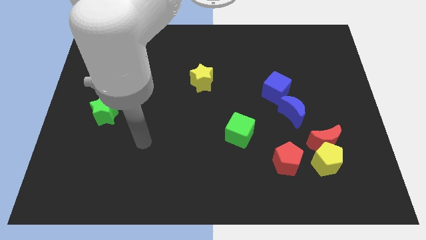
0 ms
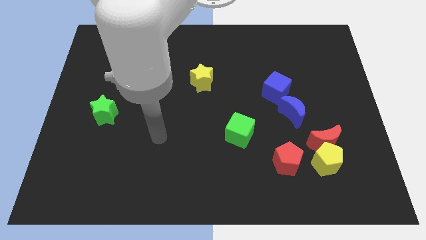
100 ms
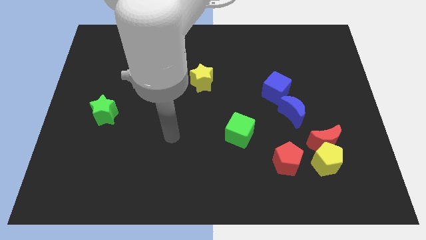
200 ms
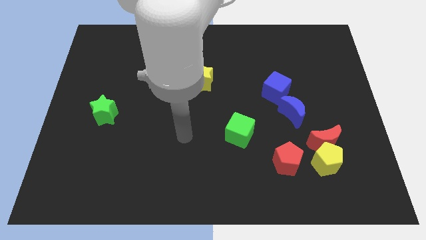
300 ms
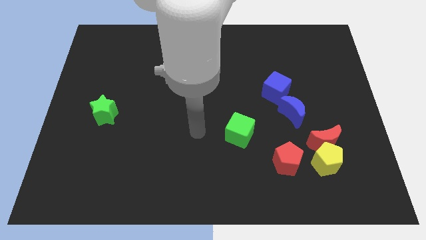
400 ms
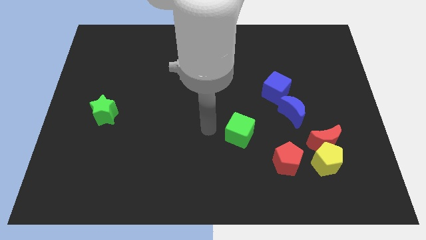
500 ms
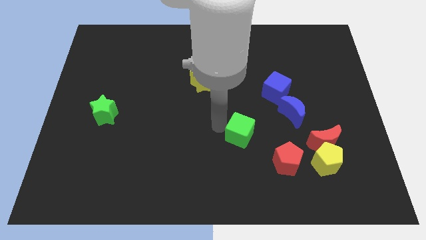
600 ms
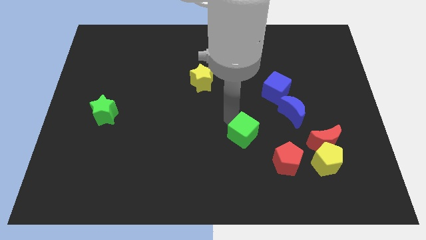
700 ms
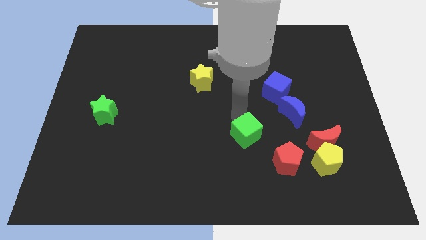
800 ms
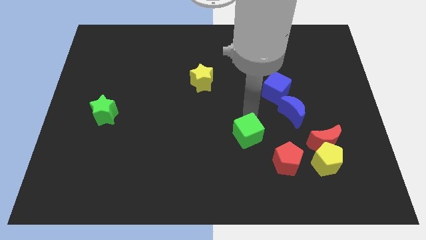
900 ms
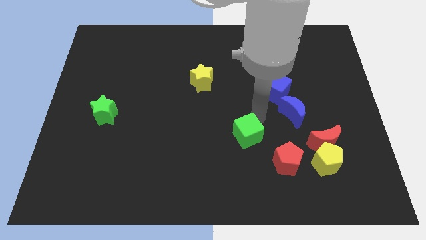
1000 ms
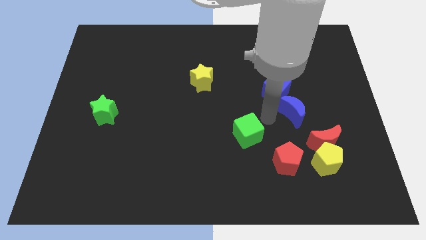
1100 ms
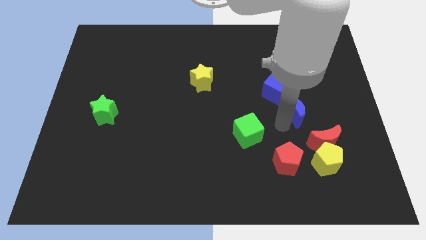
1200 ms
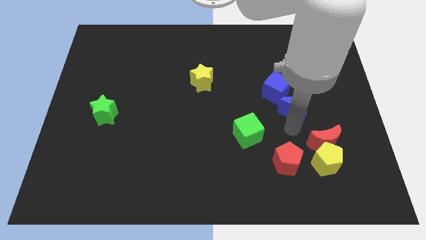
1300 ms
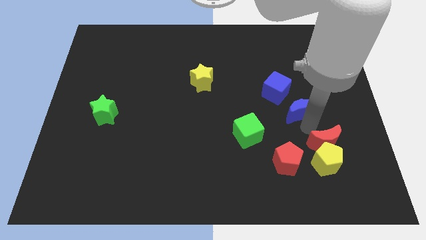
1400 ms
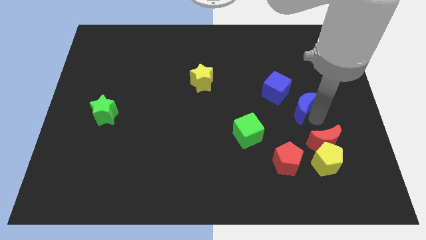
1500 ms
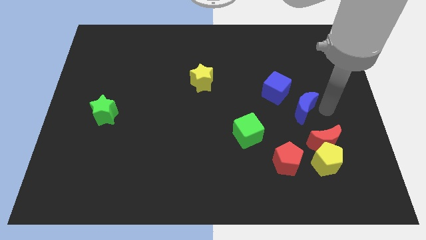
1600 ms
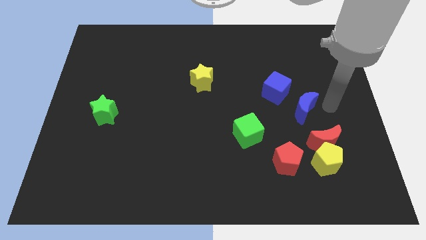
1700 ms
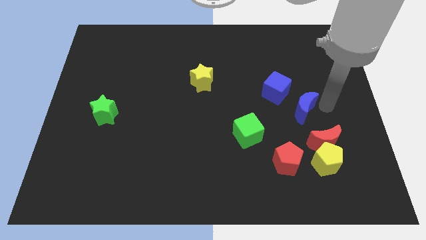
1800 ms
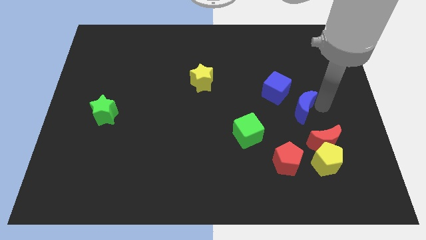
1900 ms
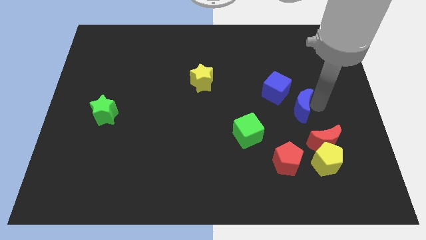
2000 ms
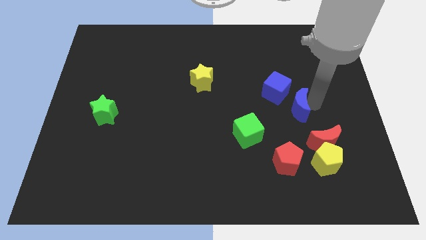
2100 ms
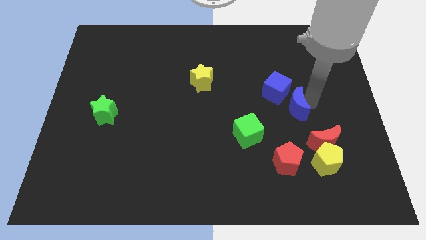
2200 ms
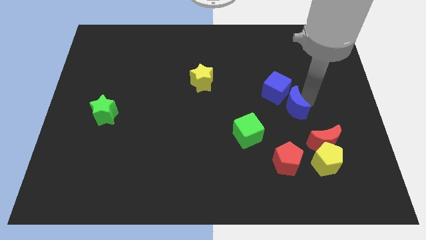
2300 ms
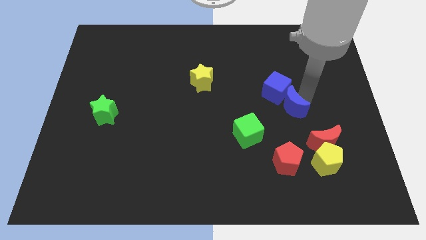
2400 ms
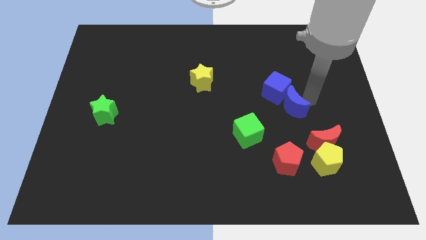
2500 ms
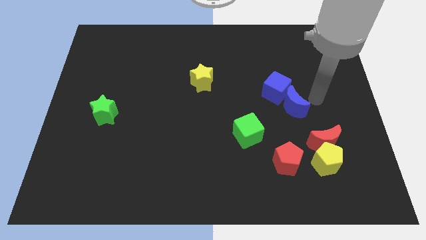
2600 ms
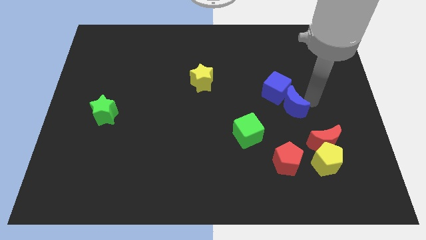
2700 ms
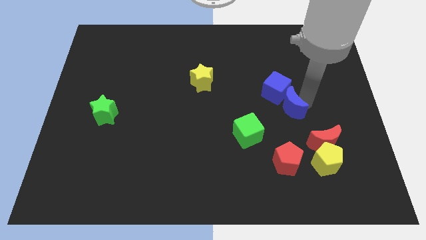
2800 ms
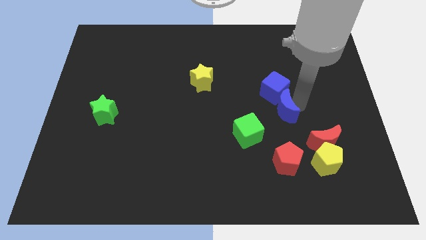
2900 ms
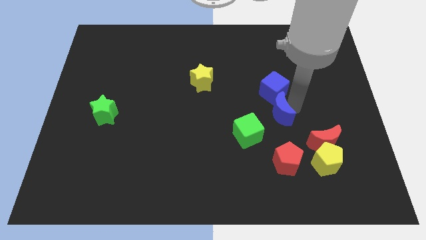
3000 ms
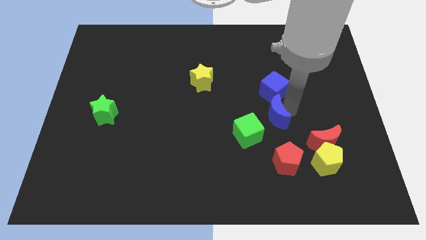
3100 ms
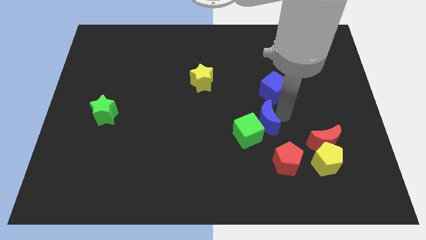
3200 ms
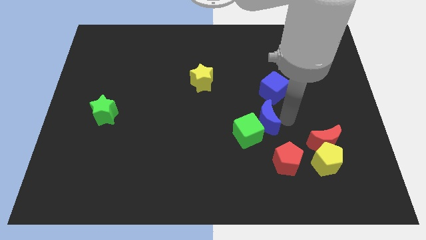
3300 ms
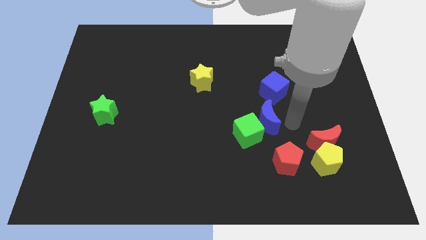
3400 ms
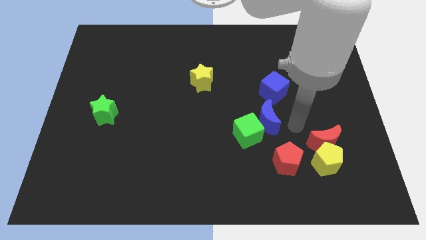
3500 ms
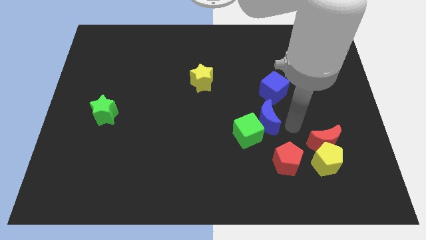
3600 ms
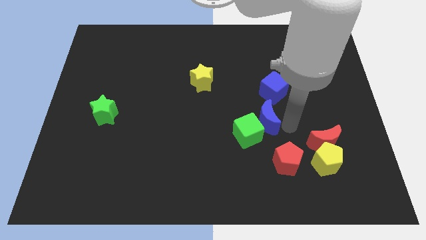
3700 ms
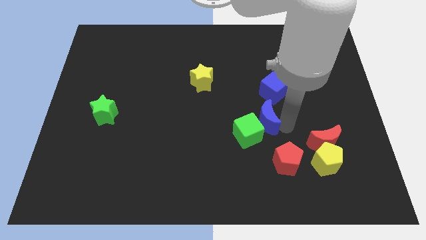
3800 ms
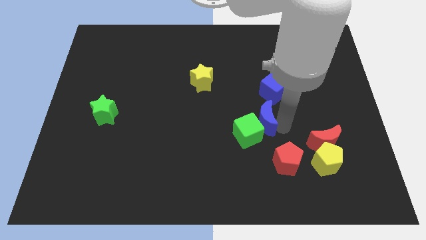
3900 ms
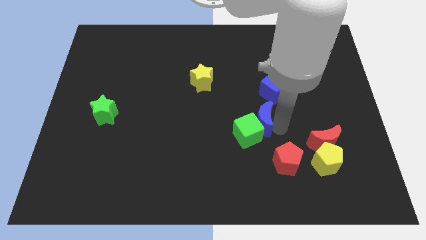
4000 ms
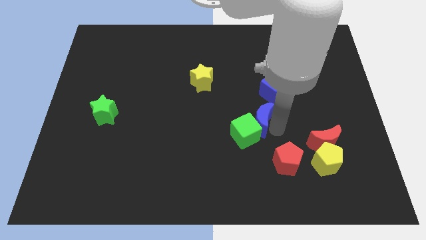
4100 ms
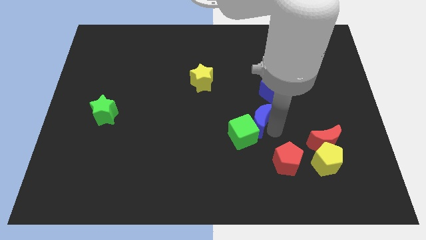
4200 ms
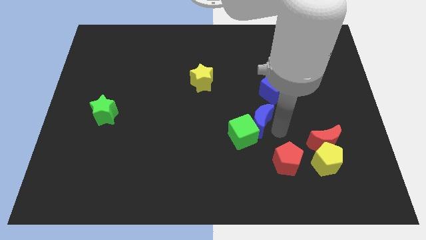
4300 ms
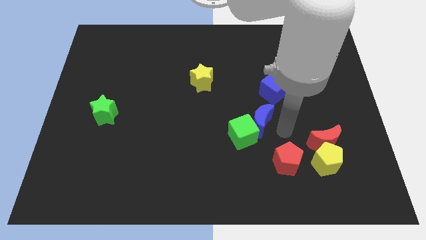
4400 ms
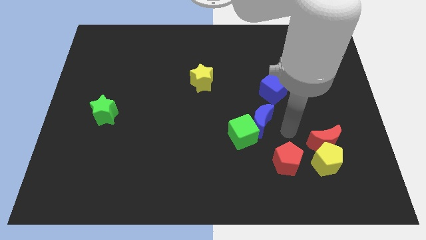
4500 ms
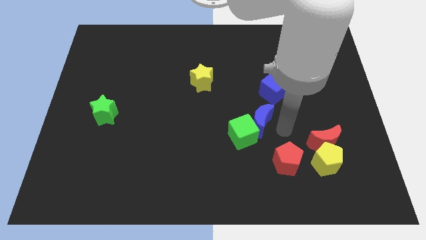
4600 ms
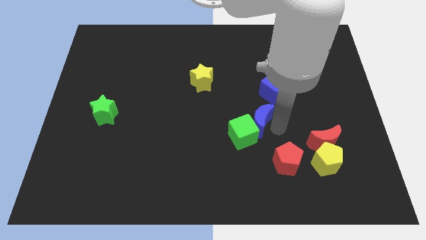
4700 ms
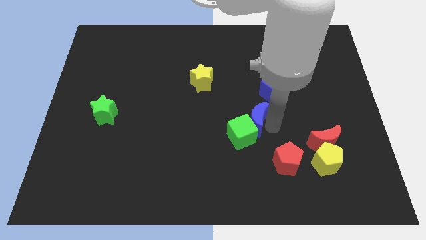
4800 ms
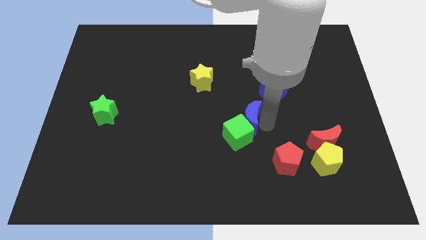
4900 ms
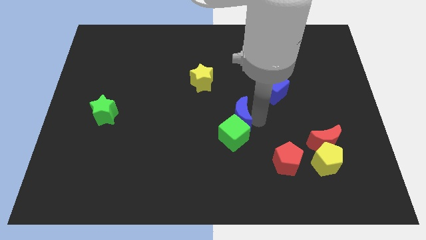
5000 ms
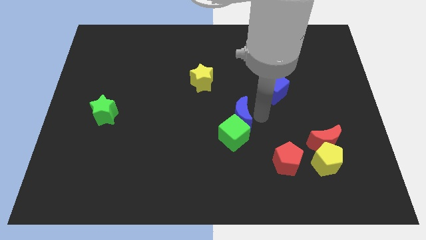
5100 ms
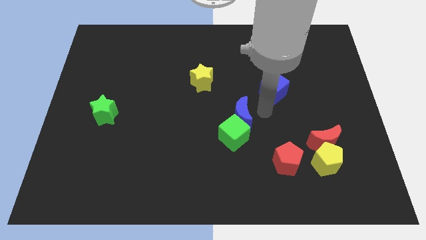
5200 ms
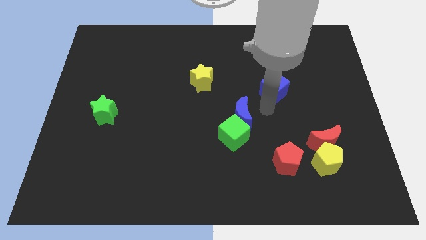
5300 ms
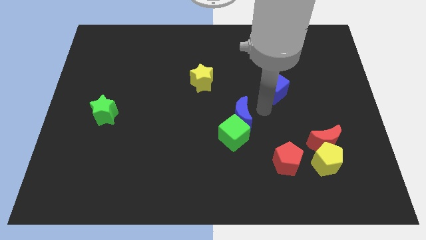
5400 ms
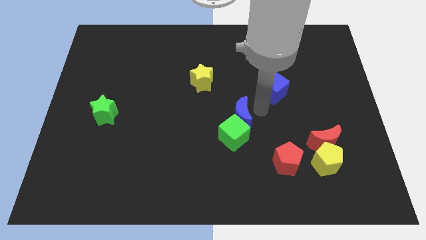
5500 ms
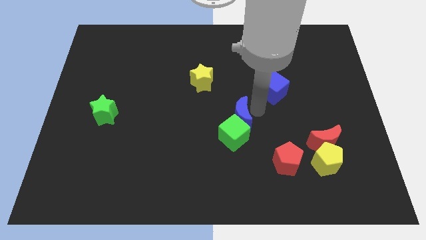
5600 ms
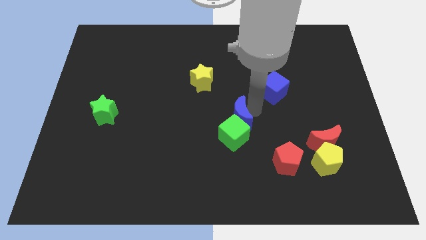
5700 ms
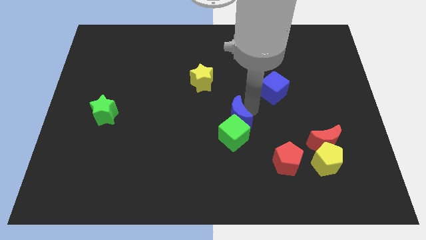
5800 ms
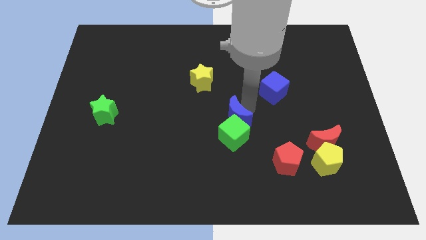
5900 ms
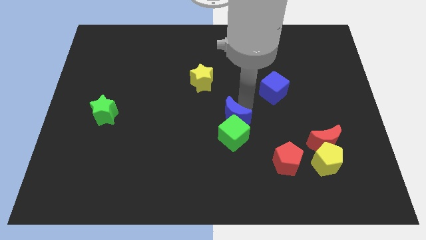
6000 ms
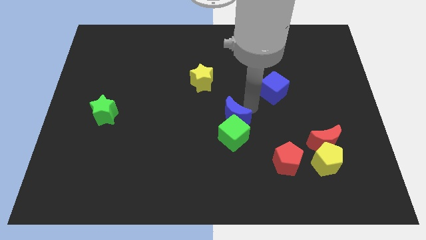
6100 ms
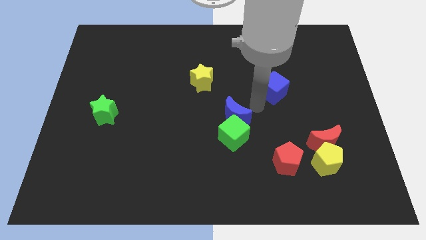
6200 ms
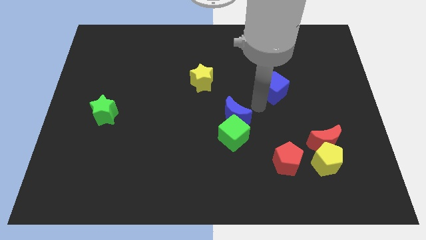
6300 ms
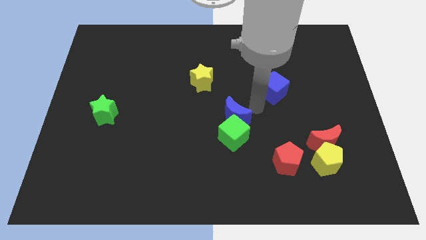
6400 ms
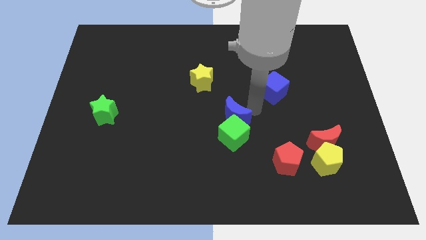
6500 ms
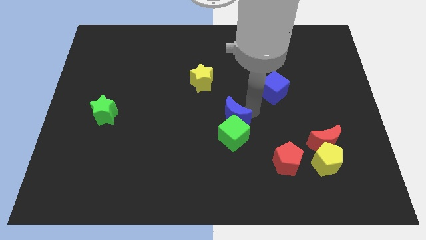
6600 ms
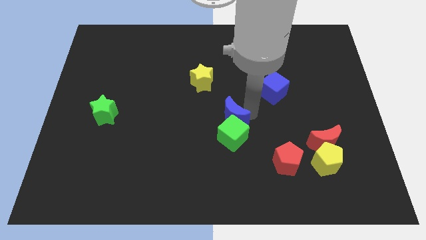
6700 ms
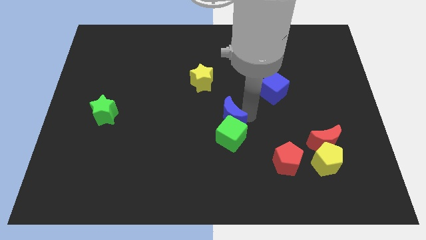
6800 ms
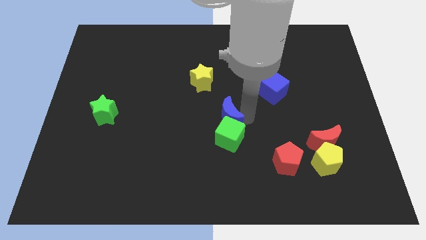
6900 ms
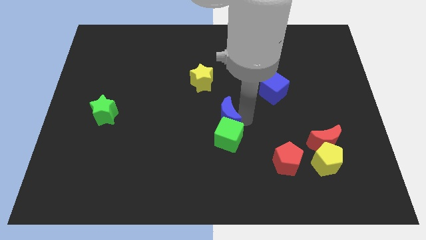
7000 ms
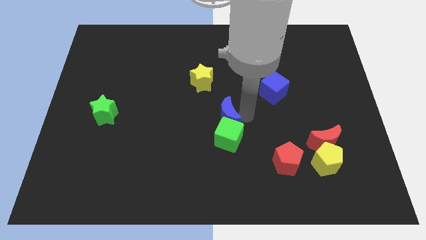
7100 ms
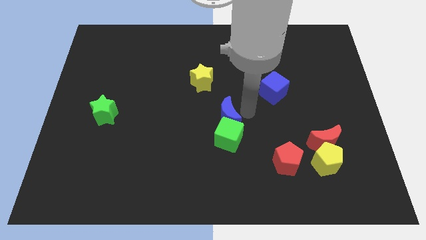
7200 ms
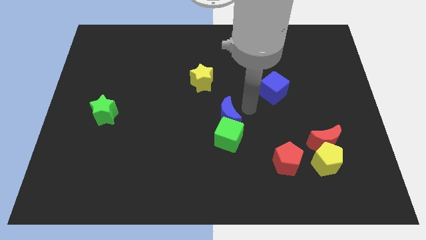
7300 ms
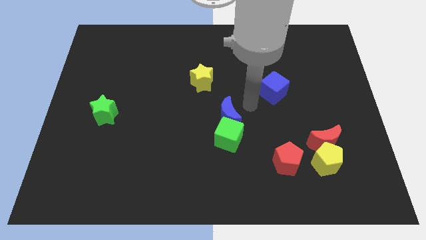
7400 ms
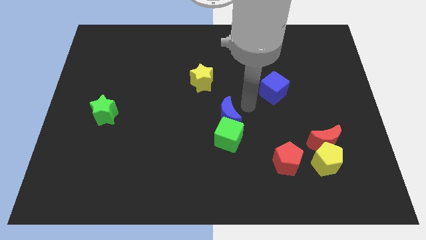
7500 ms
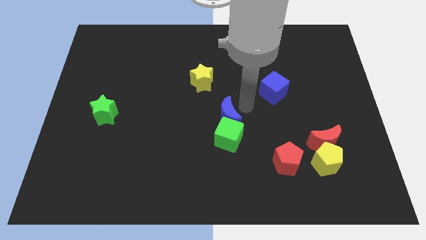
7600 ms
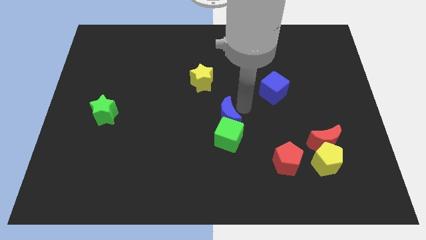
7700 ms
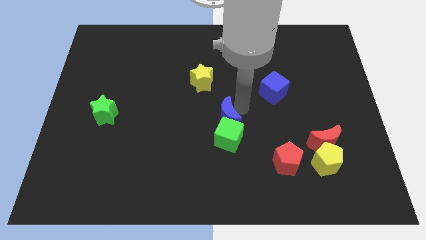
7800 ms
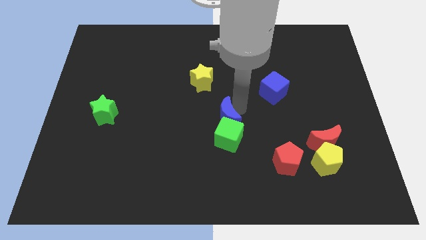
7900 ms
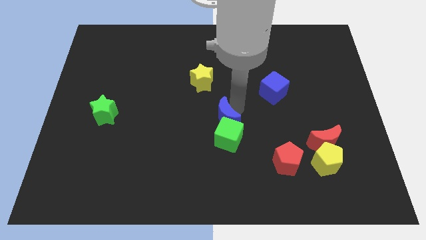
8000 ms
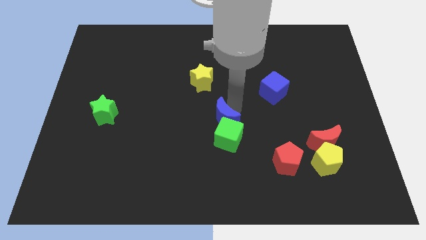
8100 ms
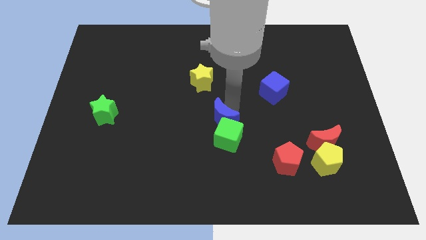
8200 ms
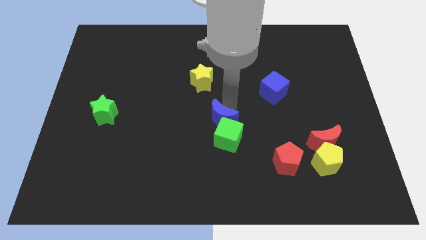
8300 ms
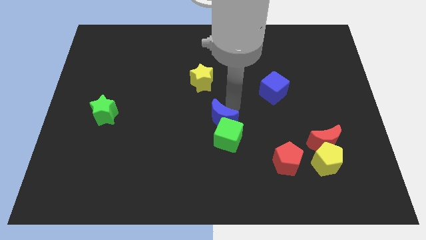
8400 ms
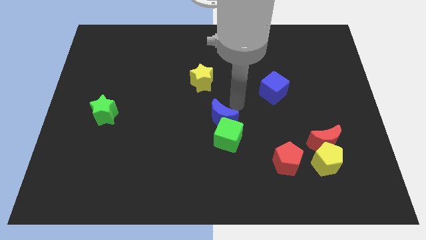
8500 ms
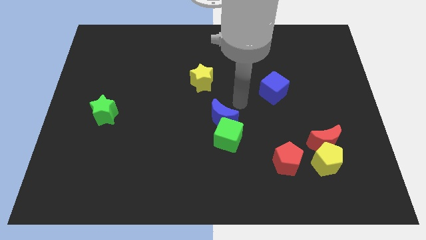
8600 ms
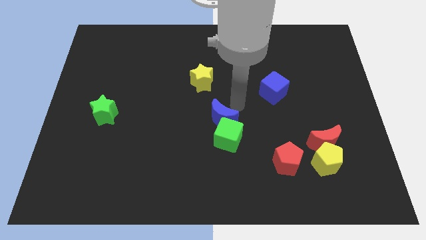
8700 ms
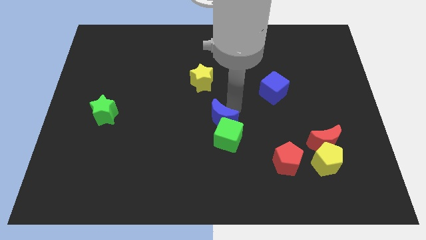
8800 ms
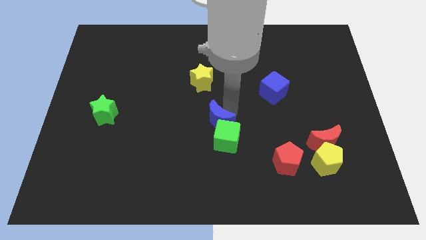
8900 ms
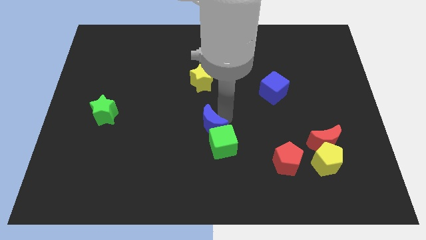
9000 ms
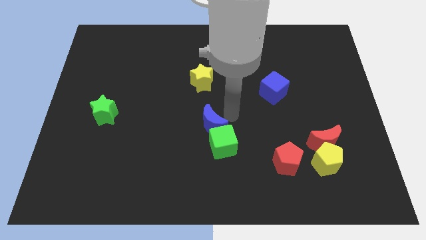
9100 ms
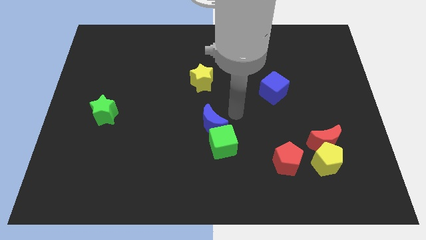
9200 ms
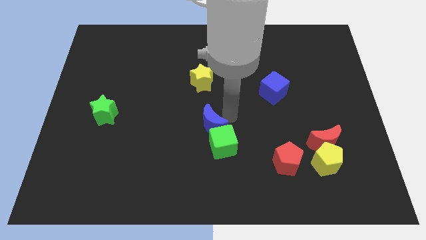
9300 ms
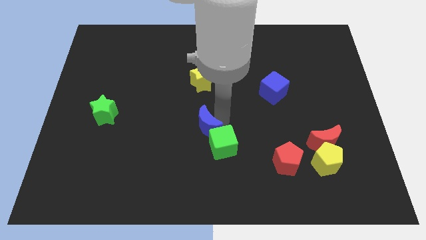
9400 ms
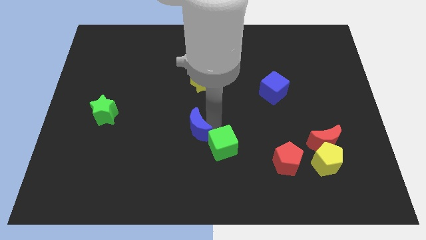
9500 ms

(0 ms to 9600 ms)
push the blue moon to the left of the green cube
